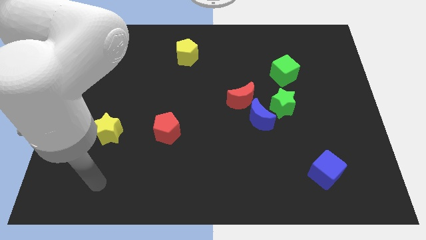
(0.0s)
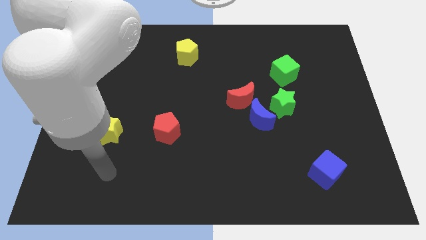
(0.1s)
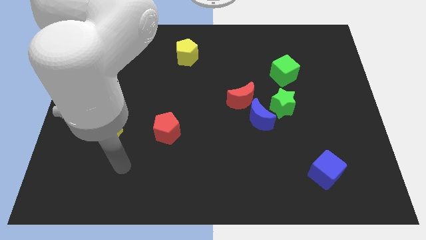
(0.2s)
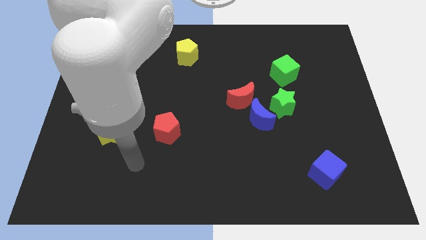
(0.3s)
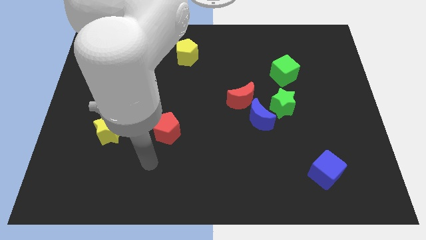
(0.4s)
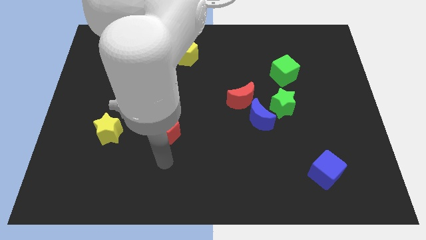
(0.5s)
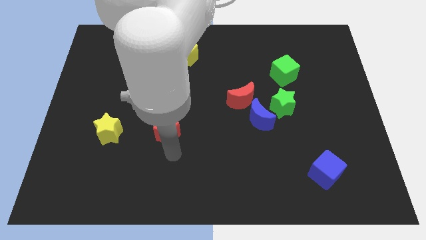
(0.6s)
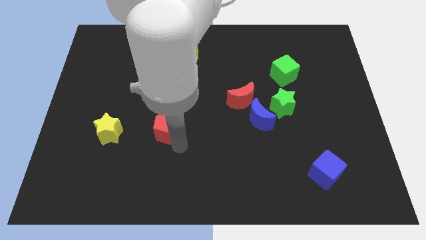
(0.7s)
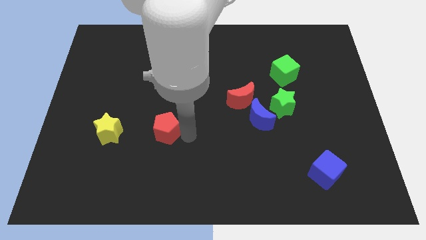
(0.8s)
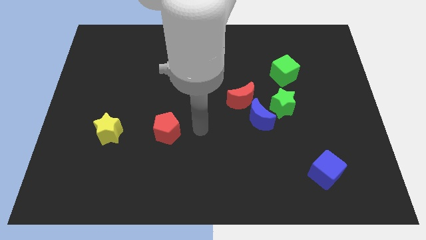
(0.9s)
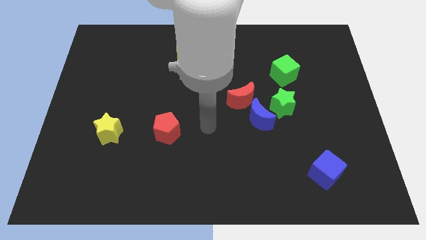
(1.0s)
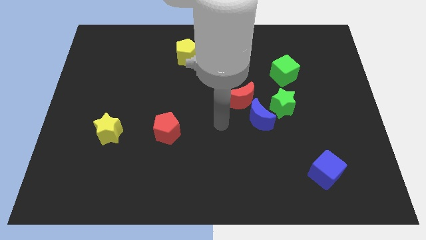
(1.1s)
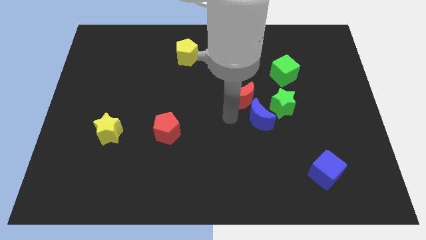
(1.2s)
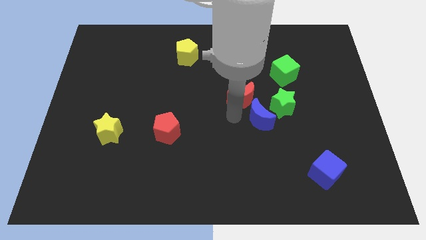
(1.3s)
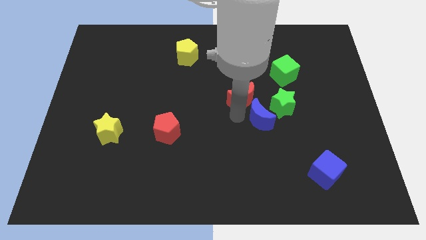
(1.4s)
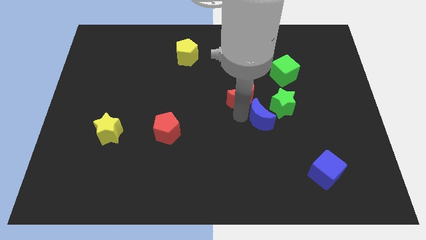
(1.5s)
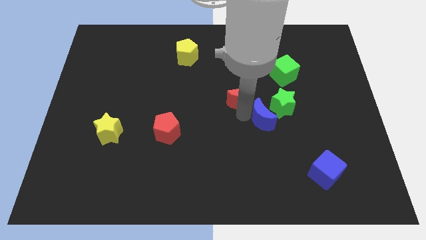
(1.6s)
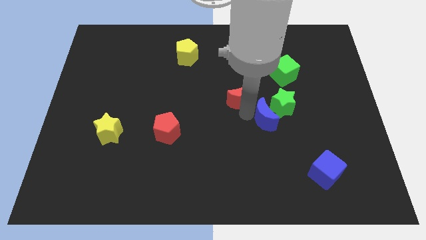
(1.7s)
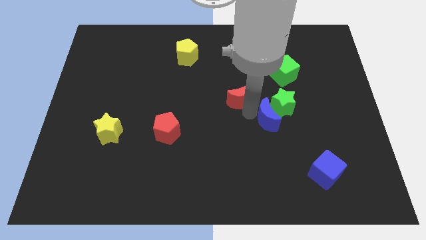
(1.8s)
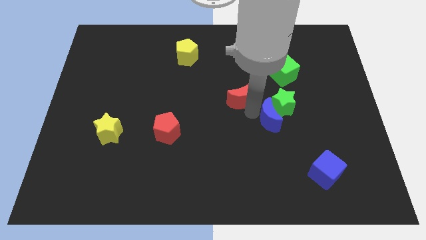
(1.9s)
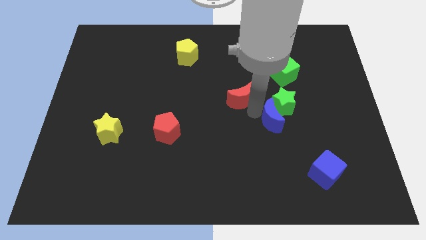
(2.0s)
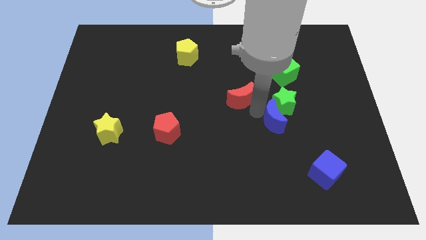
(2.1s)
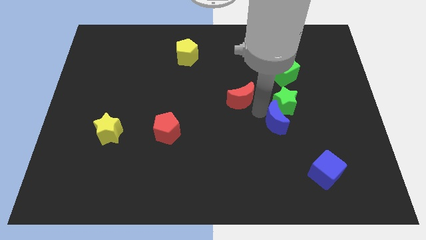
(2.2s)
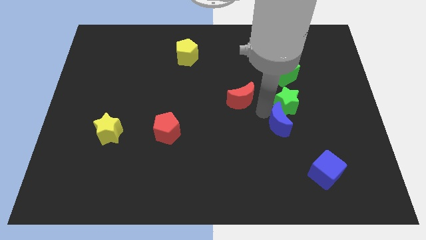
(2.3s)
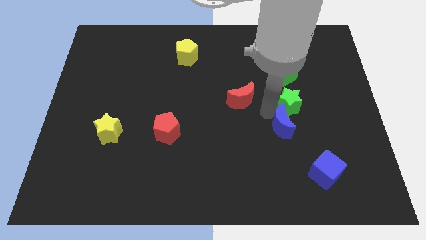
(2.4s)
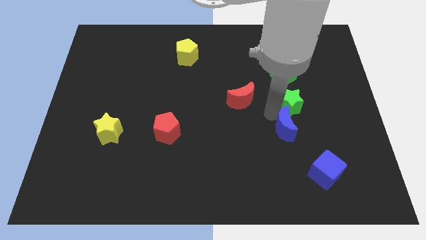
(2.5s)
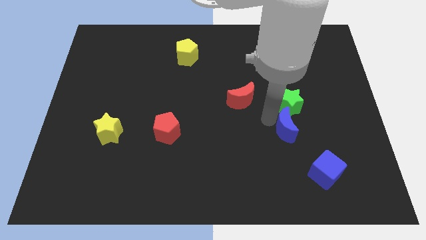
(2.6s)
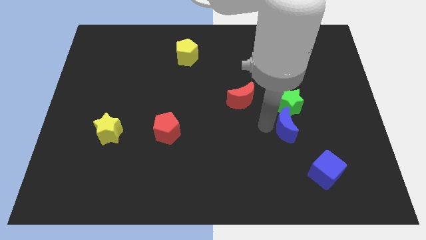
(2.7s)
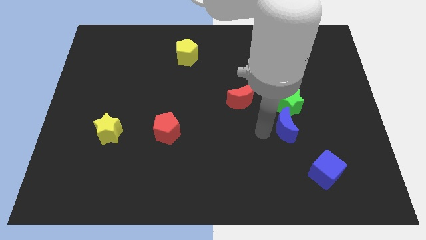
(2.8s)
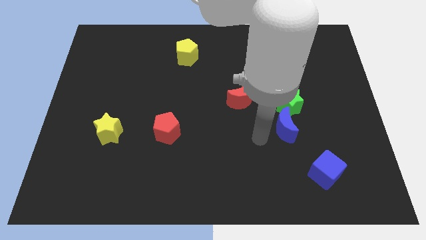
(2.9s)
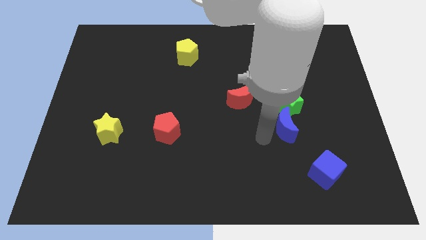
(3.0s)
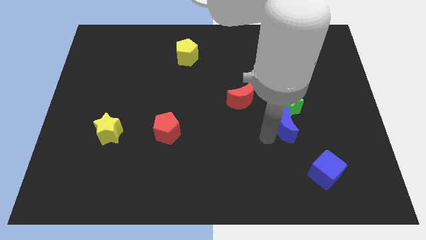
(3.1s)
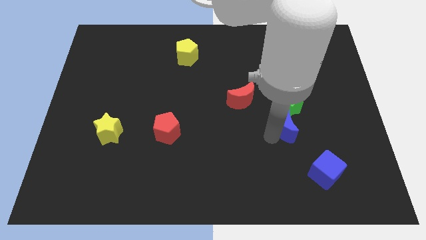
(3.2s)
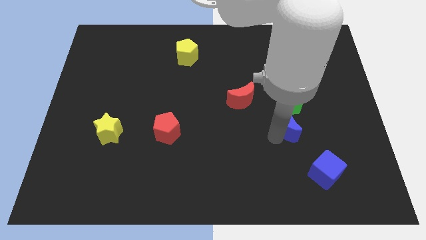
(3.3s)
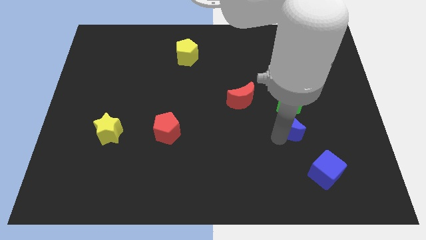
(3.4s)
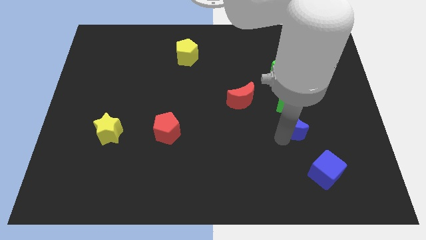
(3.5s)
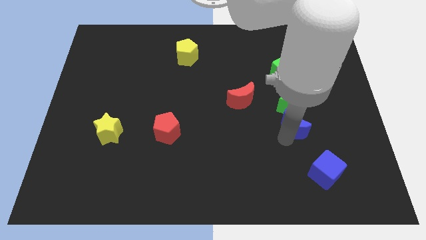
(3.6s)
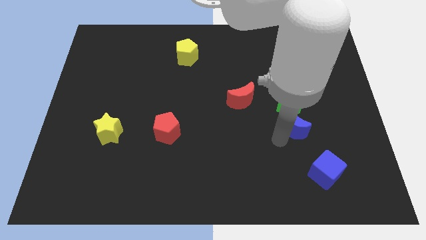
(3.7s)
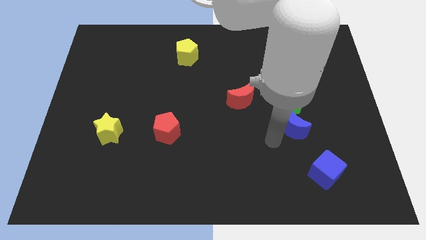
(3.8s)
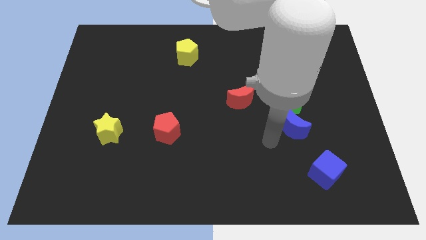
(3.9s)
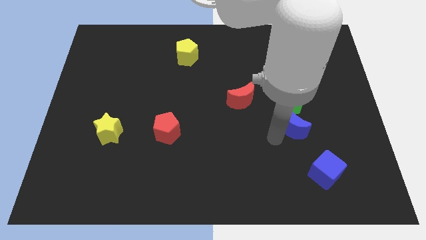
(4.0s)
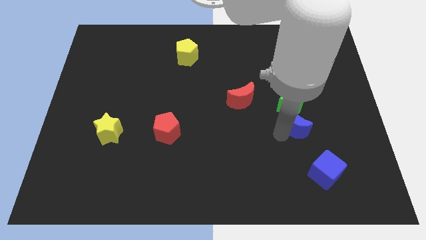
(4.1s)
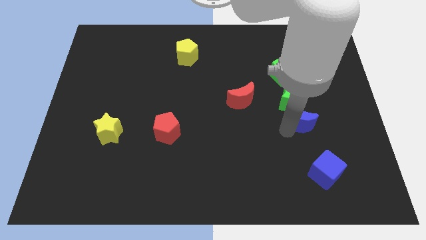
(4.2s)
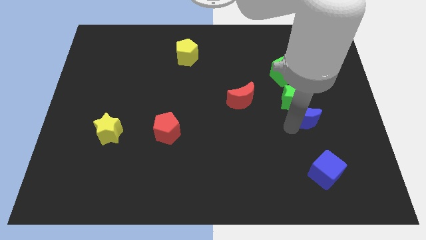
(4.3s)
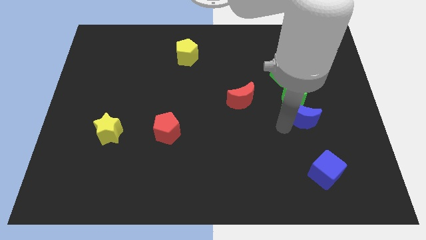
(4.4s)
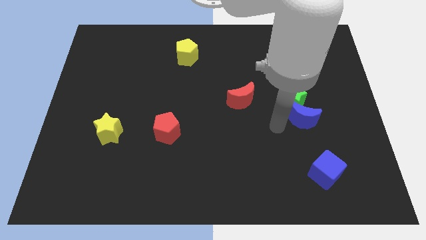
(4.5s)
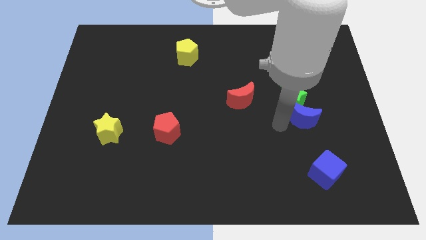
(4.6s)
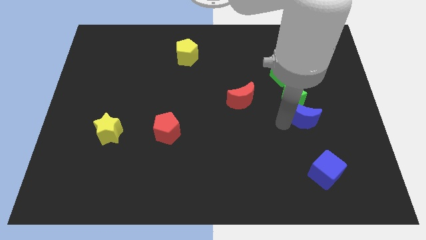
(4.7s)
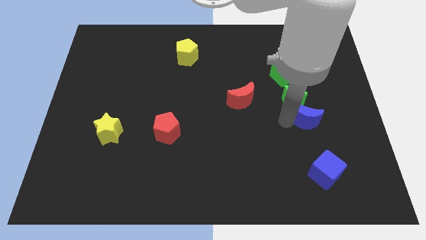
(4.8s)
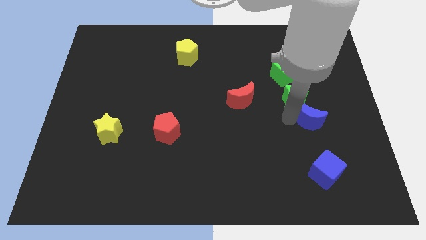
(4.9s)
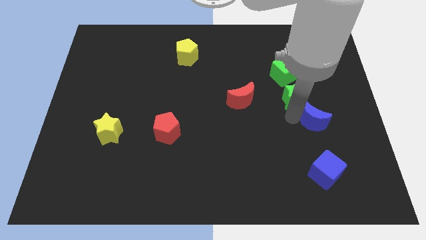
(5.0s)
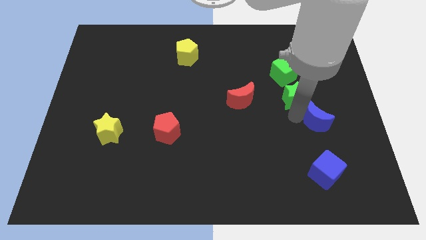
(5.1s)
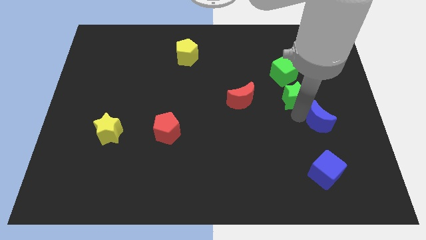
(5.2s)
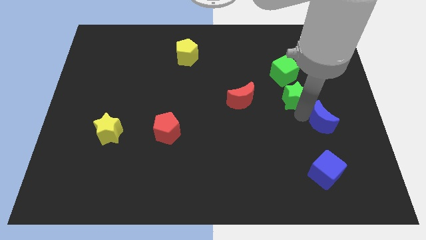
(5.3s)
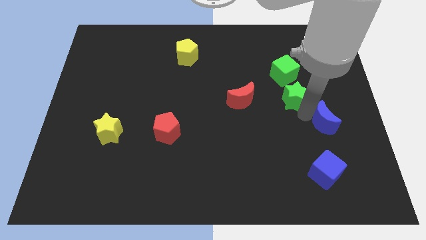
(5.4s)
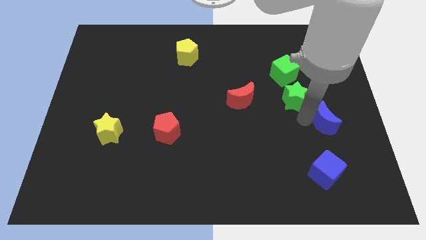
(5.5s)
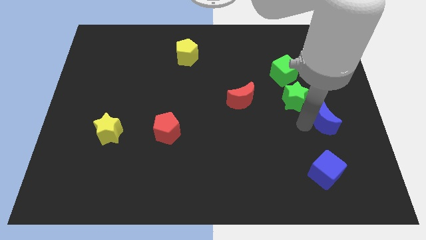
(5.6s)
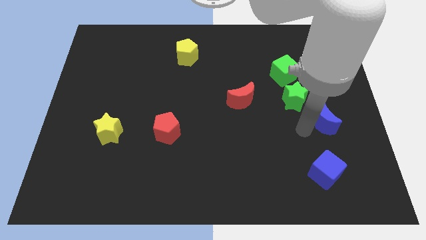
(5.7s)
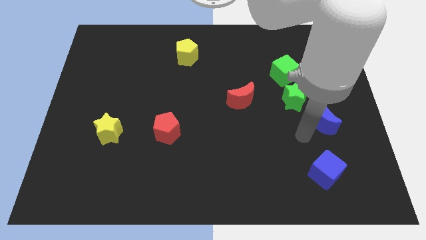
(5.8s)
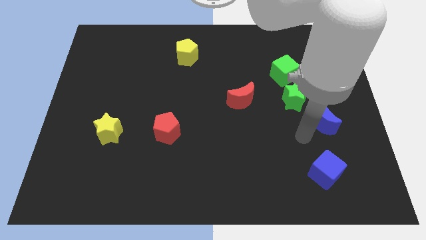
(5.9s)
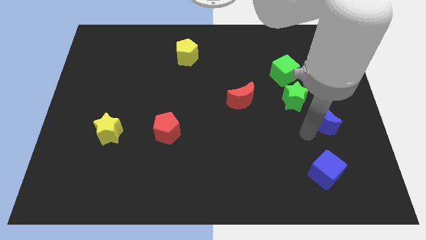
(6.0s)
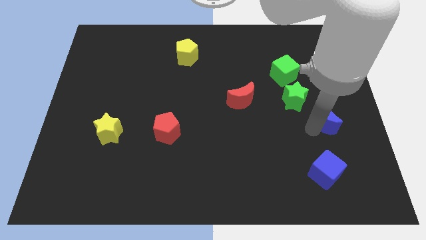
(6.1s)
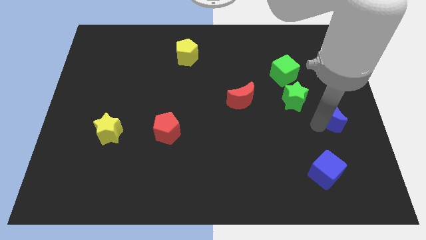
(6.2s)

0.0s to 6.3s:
move the blue moon to the right side
